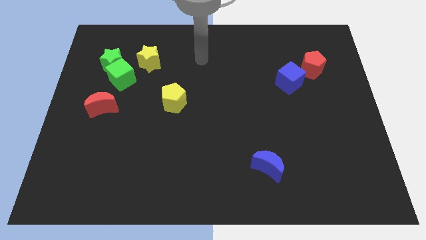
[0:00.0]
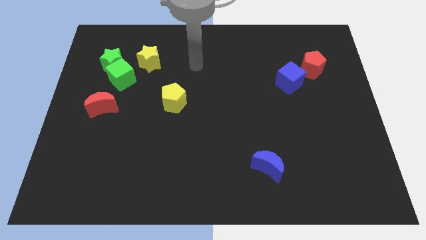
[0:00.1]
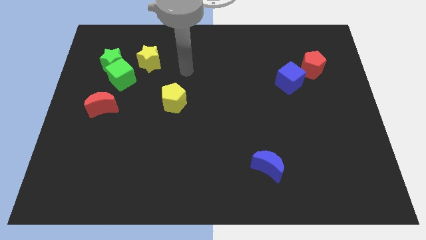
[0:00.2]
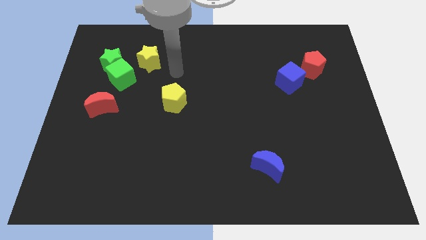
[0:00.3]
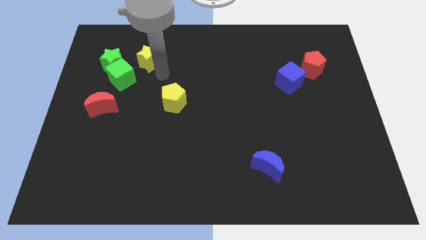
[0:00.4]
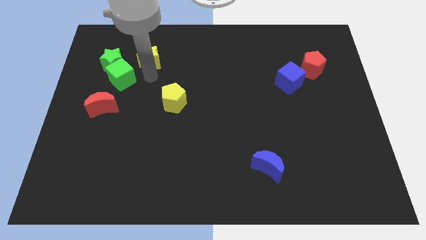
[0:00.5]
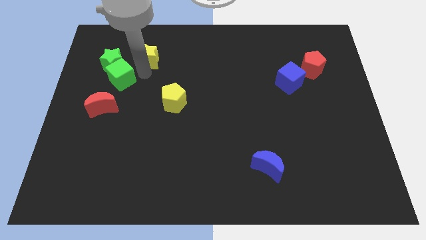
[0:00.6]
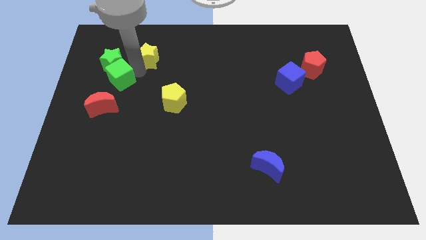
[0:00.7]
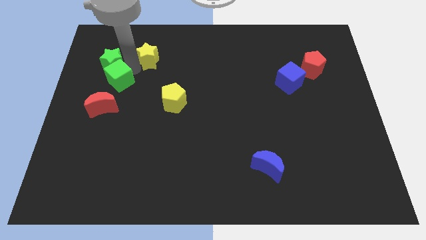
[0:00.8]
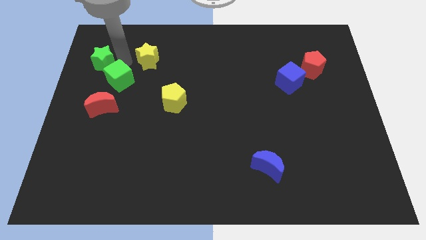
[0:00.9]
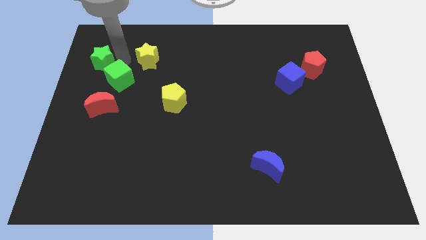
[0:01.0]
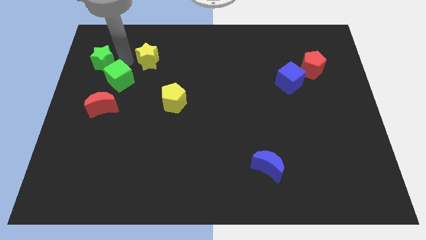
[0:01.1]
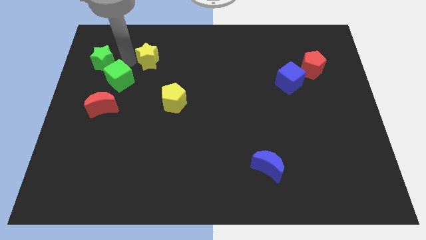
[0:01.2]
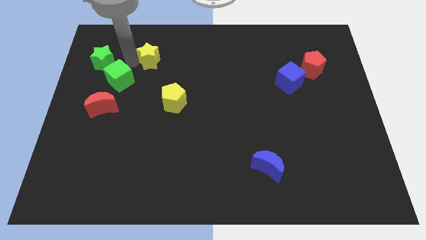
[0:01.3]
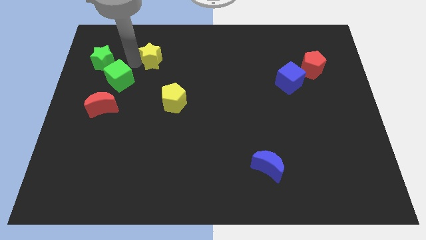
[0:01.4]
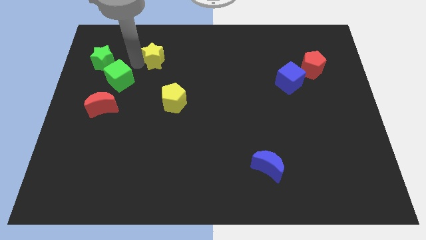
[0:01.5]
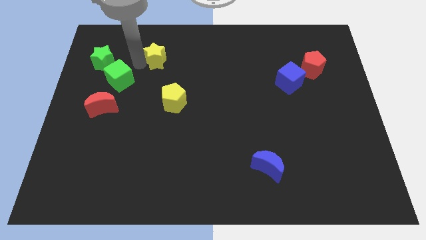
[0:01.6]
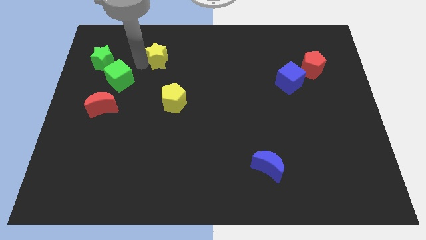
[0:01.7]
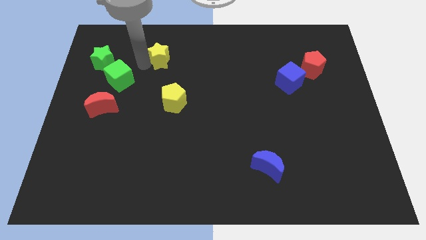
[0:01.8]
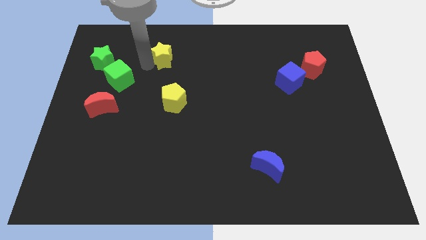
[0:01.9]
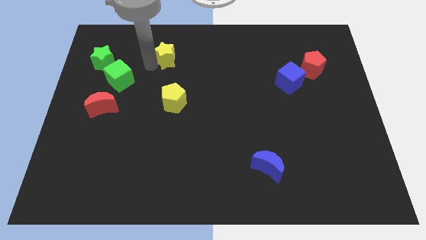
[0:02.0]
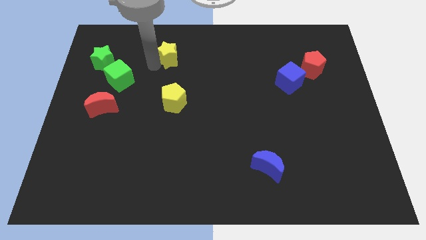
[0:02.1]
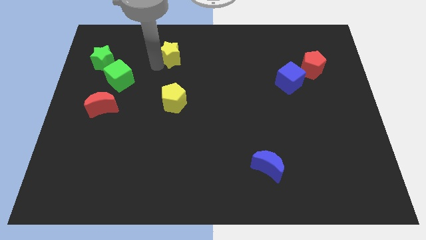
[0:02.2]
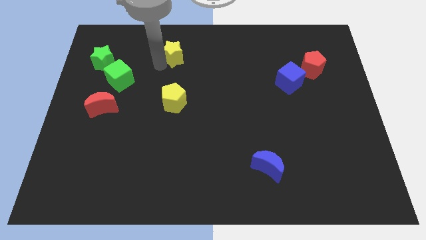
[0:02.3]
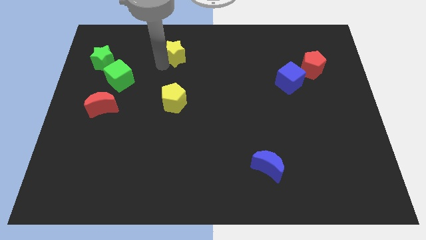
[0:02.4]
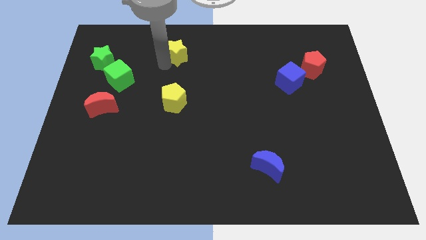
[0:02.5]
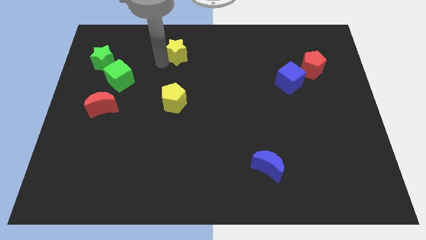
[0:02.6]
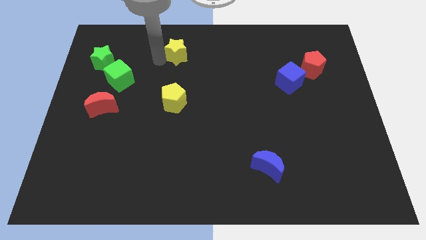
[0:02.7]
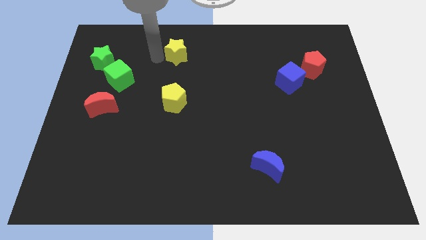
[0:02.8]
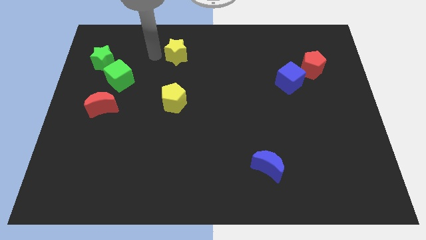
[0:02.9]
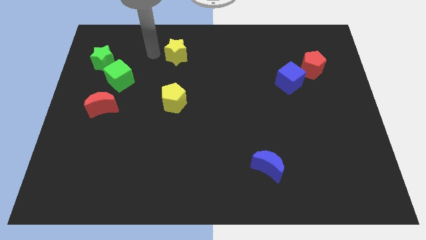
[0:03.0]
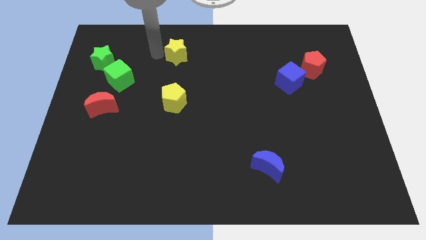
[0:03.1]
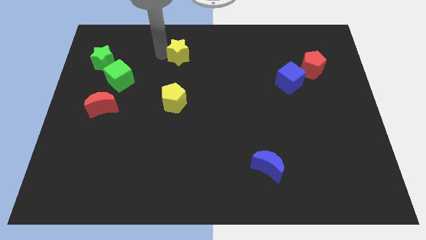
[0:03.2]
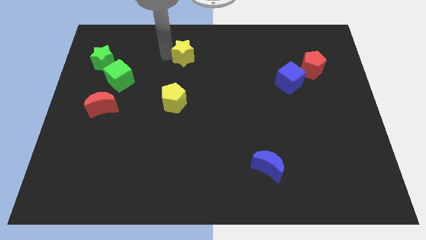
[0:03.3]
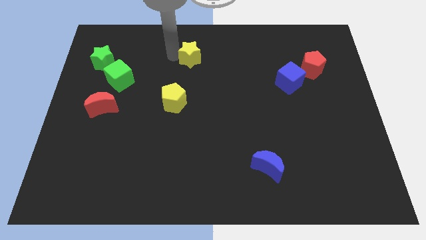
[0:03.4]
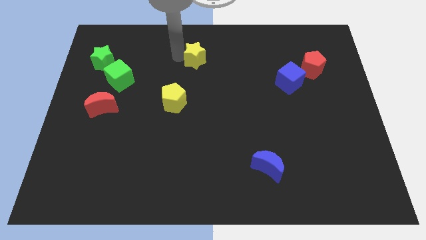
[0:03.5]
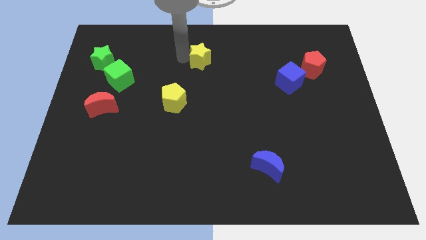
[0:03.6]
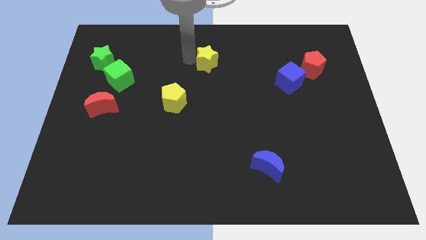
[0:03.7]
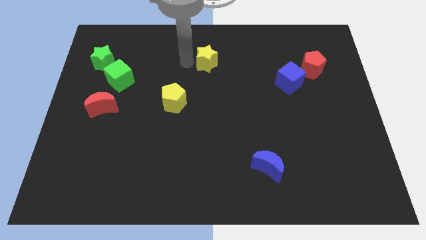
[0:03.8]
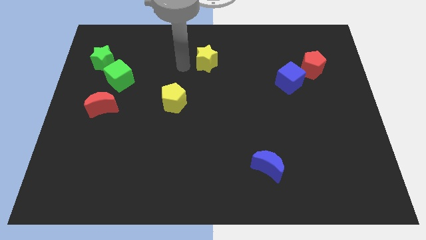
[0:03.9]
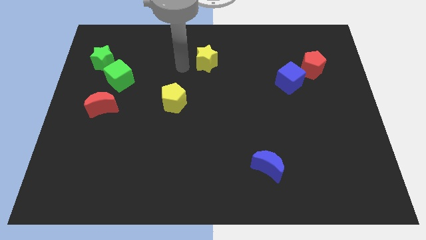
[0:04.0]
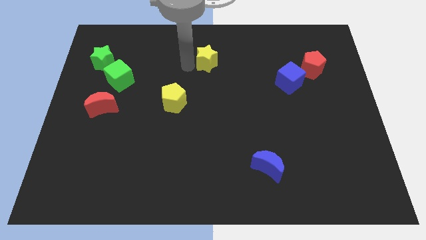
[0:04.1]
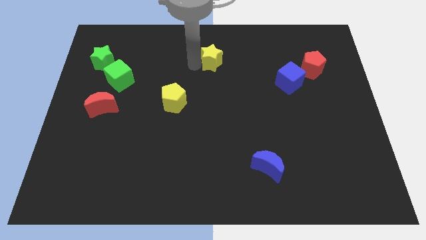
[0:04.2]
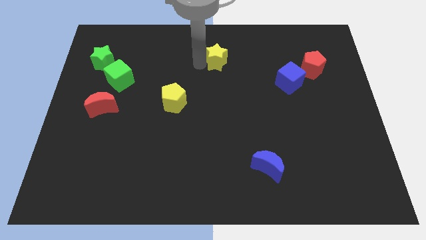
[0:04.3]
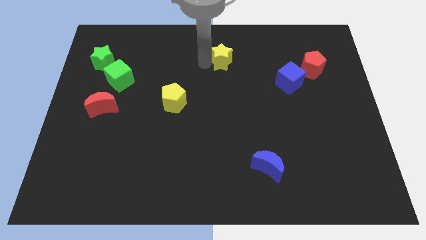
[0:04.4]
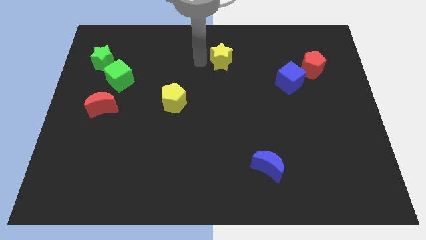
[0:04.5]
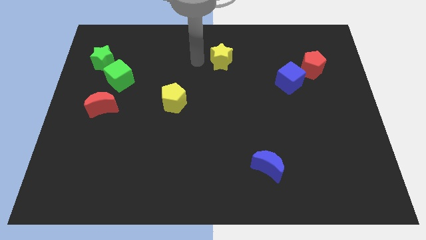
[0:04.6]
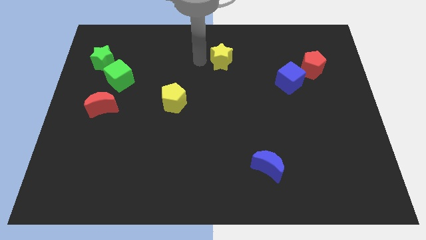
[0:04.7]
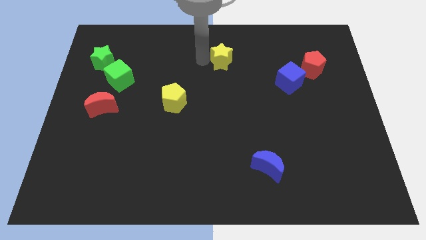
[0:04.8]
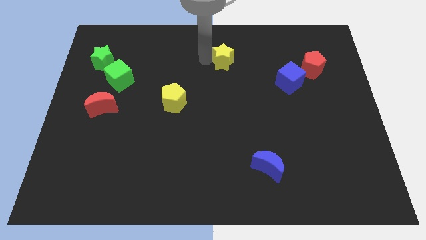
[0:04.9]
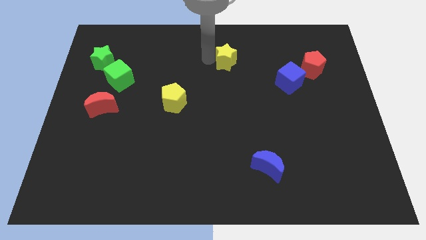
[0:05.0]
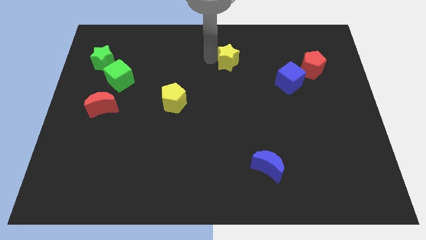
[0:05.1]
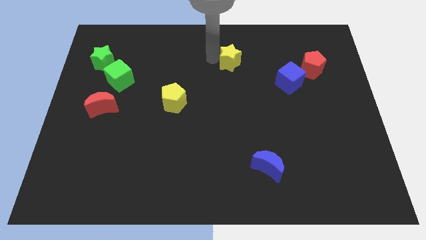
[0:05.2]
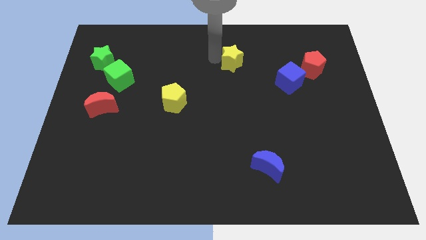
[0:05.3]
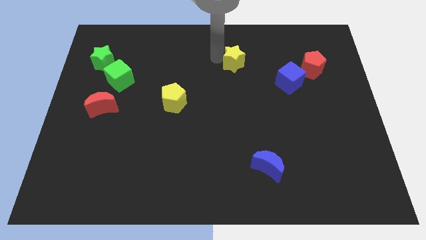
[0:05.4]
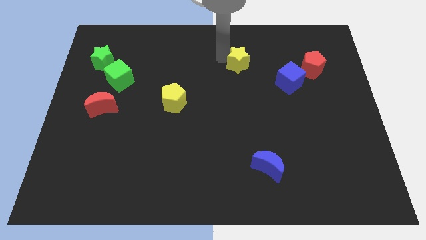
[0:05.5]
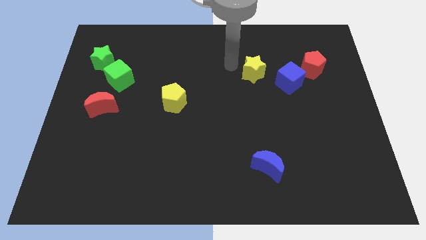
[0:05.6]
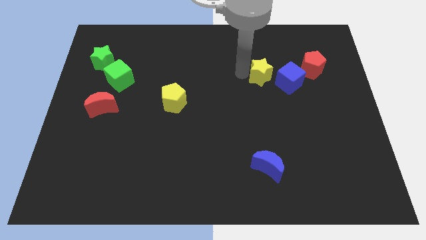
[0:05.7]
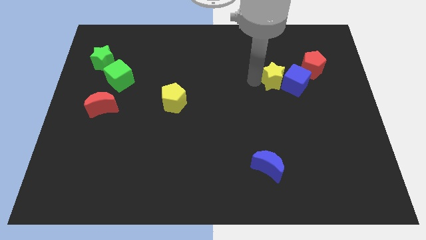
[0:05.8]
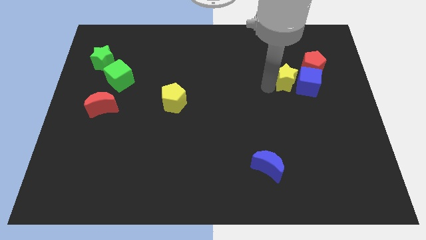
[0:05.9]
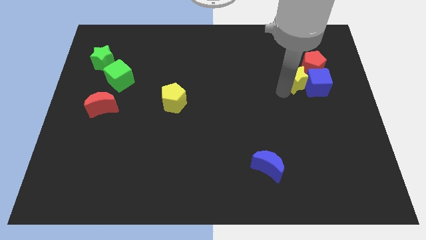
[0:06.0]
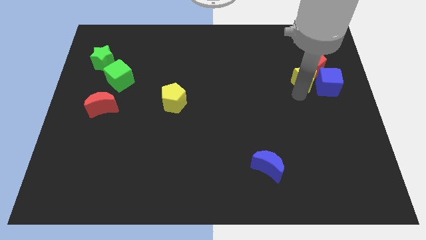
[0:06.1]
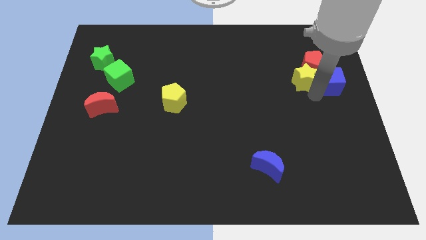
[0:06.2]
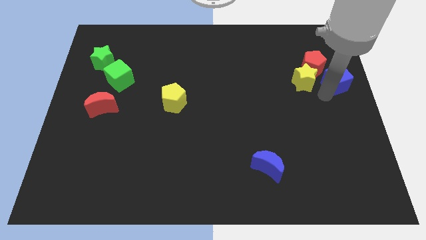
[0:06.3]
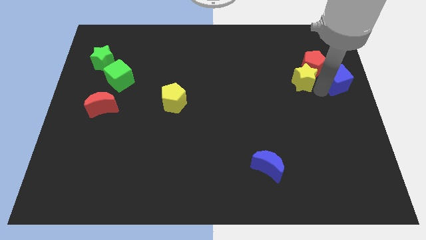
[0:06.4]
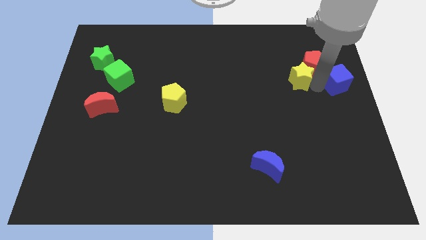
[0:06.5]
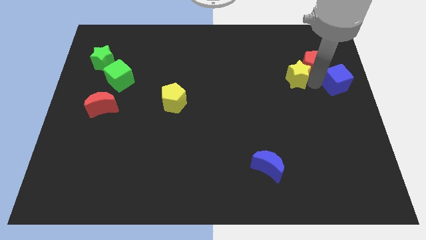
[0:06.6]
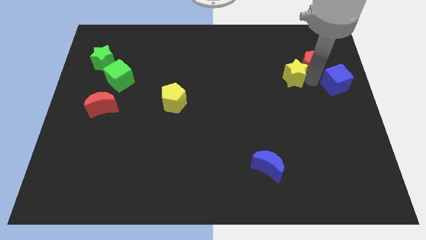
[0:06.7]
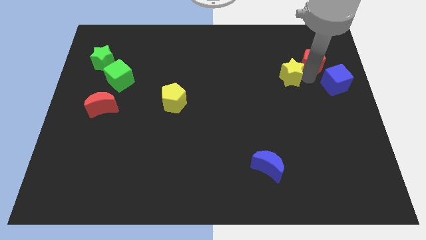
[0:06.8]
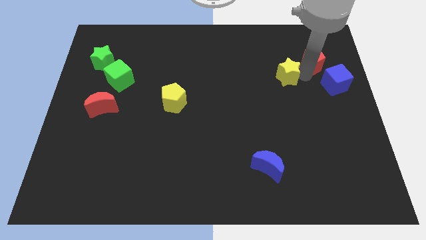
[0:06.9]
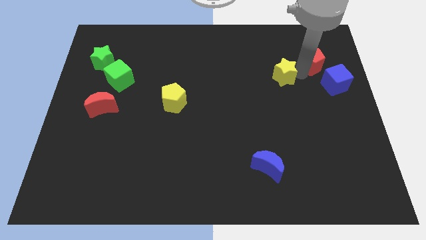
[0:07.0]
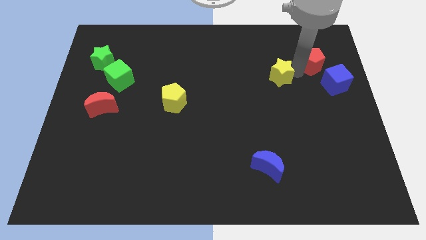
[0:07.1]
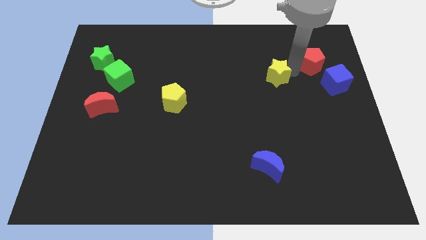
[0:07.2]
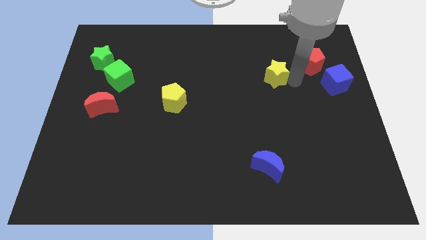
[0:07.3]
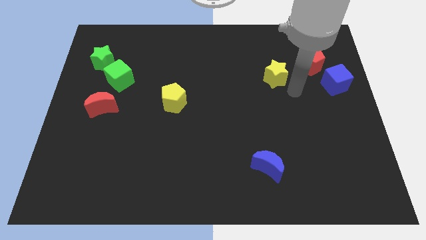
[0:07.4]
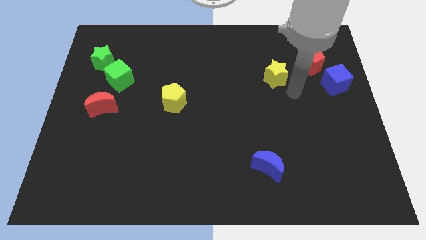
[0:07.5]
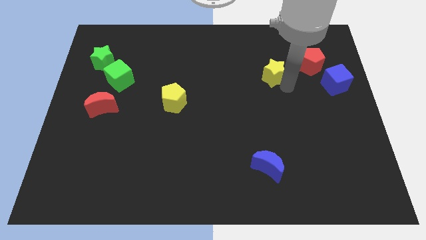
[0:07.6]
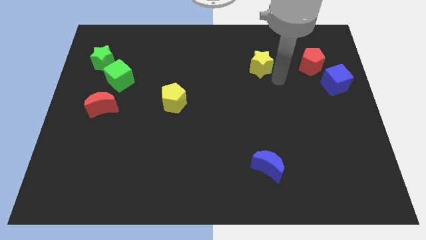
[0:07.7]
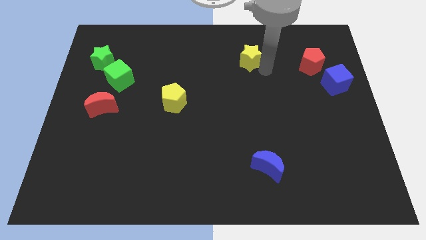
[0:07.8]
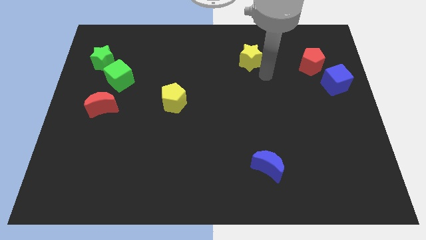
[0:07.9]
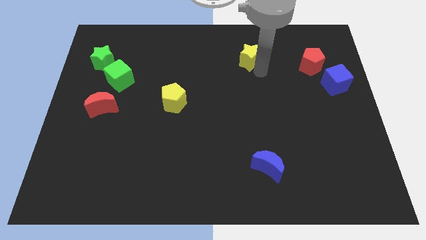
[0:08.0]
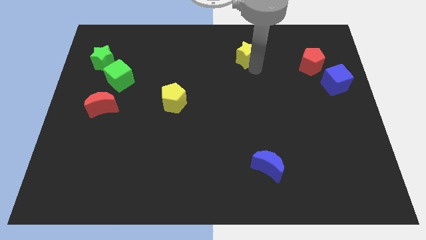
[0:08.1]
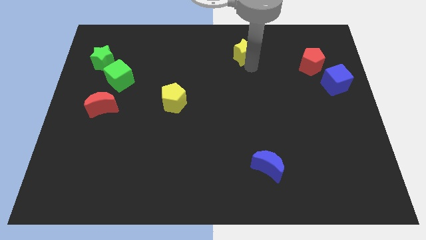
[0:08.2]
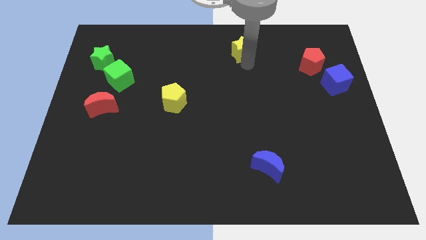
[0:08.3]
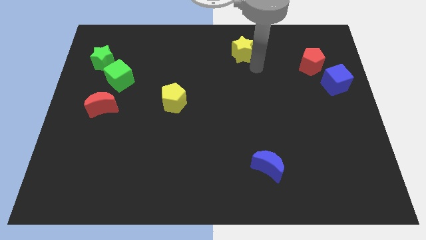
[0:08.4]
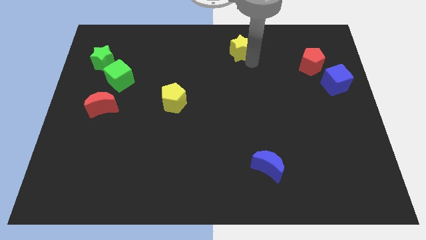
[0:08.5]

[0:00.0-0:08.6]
push the yellow star to the top
